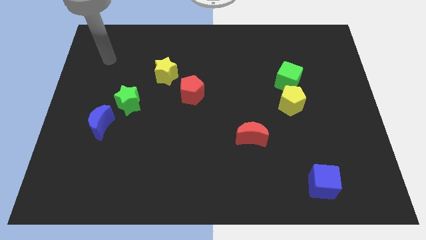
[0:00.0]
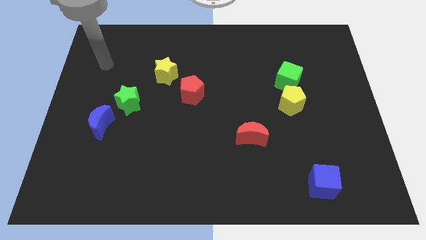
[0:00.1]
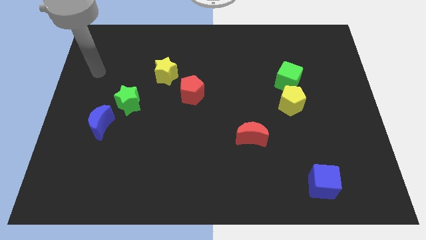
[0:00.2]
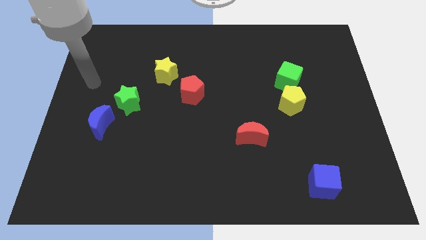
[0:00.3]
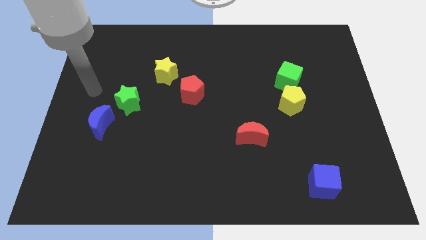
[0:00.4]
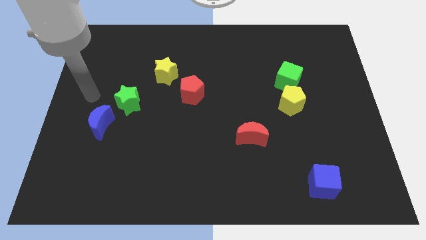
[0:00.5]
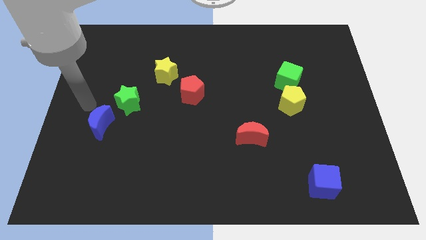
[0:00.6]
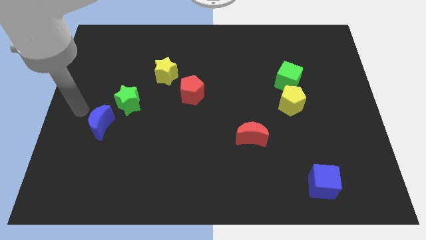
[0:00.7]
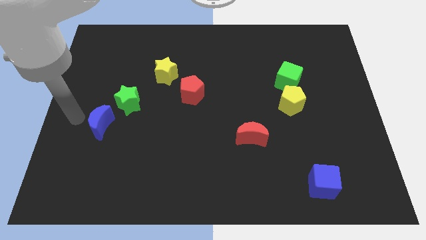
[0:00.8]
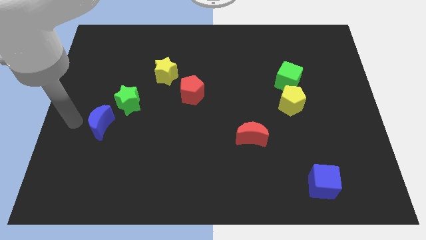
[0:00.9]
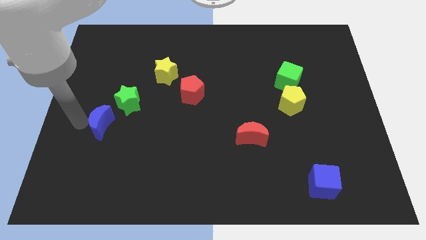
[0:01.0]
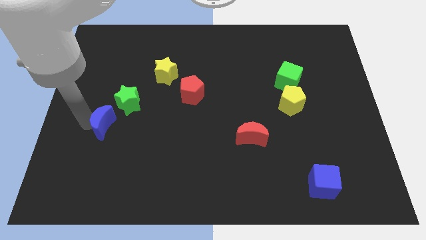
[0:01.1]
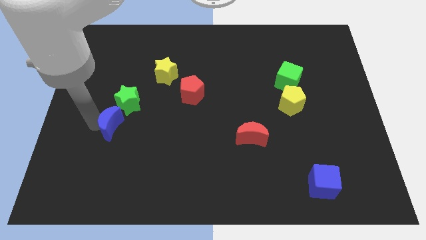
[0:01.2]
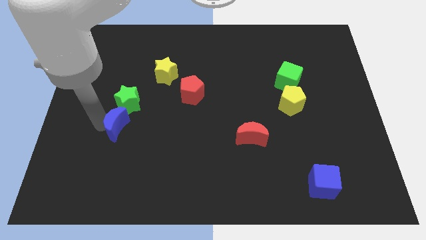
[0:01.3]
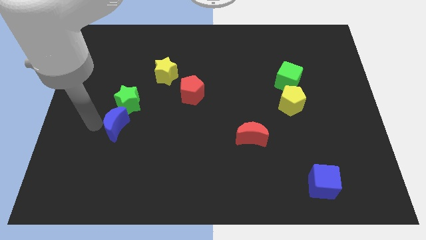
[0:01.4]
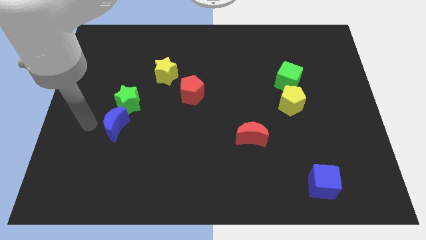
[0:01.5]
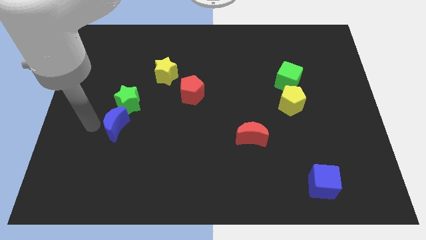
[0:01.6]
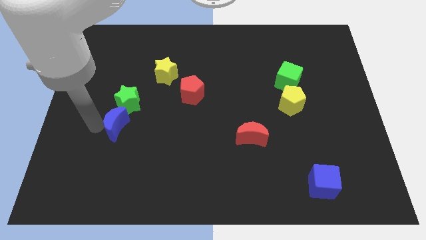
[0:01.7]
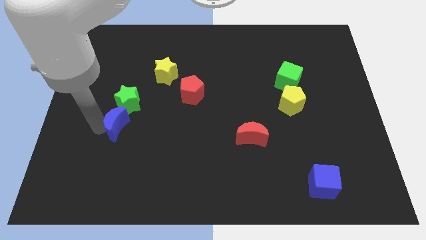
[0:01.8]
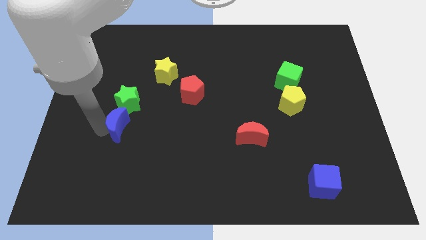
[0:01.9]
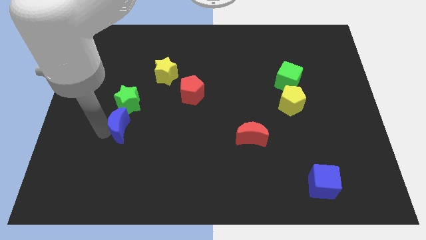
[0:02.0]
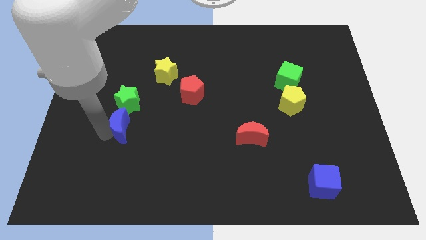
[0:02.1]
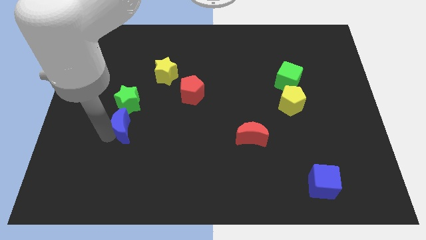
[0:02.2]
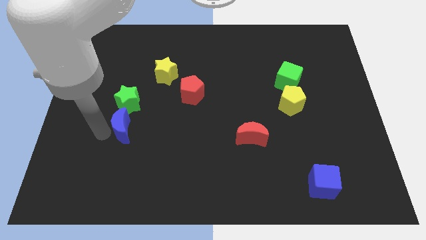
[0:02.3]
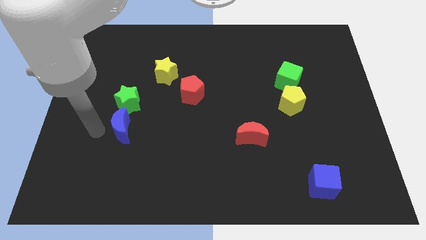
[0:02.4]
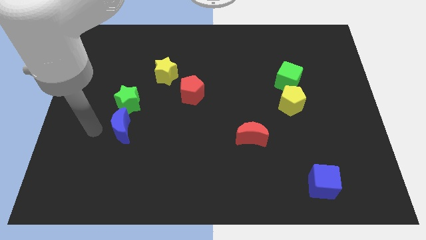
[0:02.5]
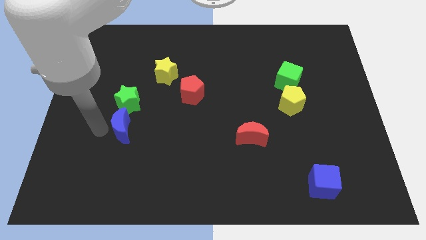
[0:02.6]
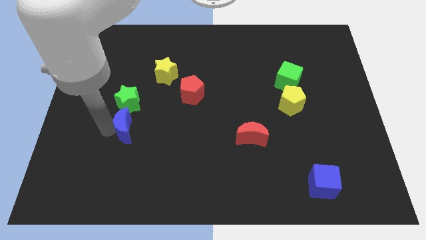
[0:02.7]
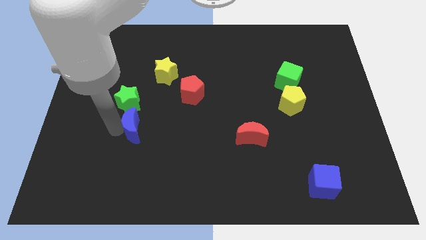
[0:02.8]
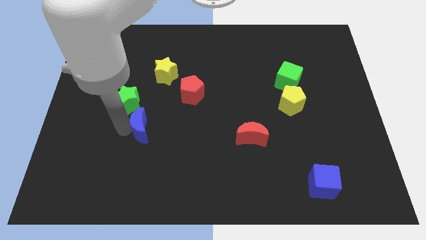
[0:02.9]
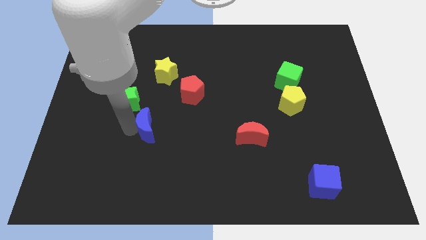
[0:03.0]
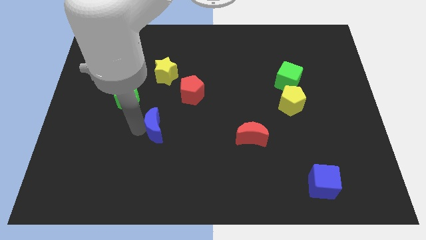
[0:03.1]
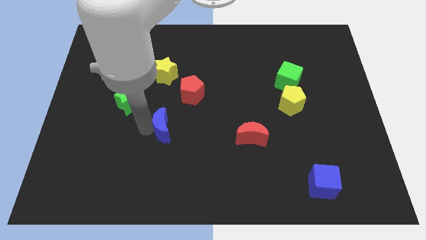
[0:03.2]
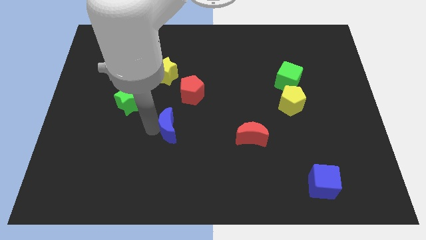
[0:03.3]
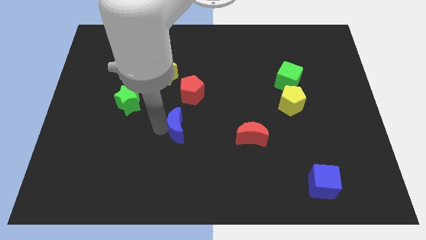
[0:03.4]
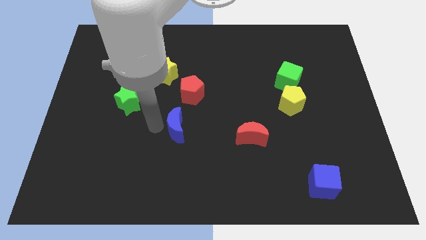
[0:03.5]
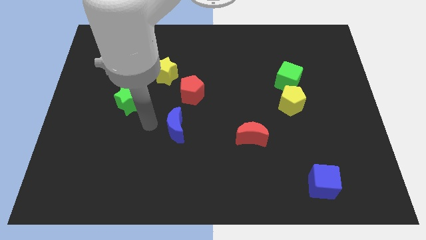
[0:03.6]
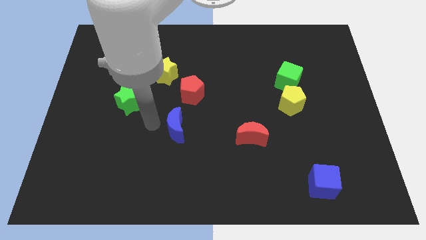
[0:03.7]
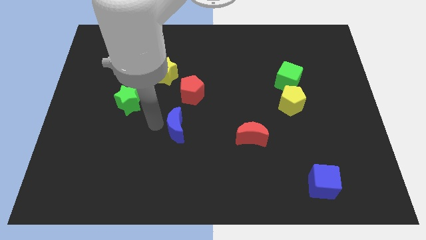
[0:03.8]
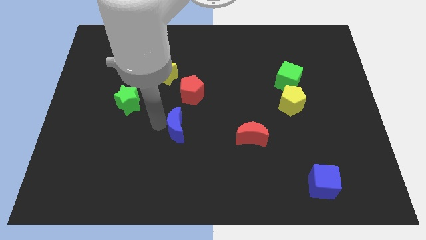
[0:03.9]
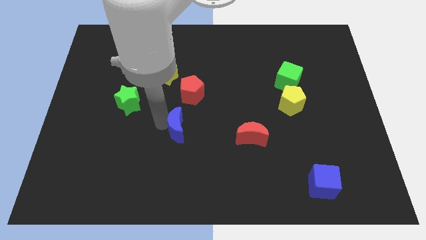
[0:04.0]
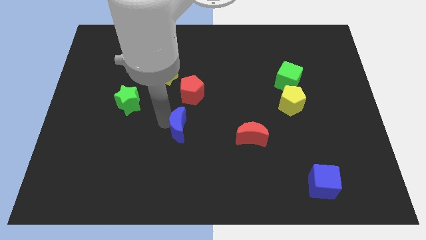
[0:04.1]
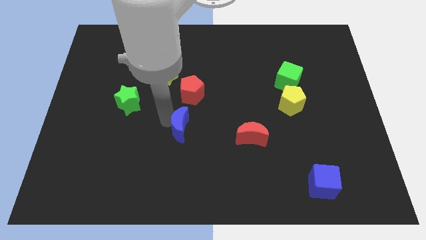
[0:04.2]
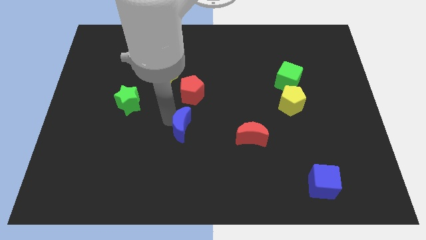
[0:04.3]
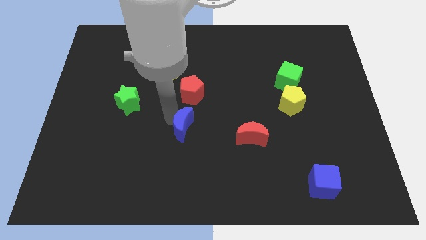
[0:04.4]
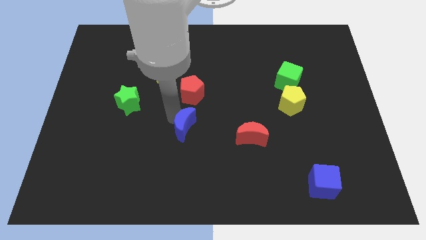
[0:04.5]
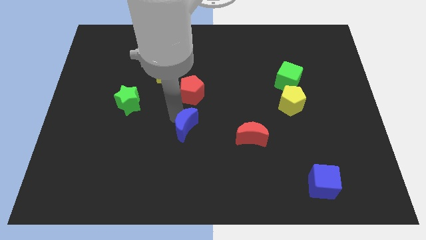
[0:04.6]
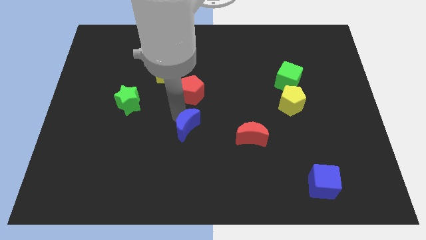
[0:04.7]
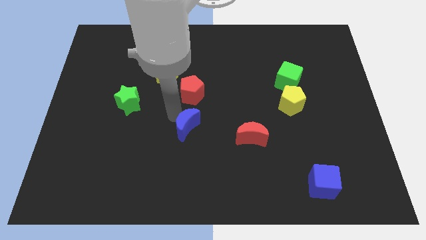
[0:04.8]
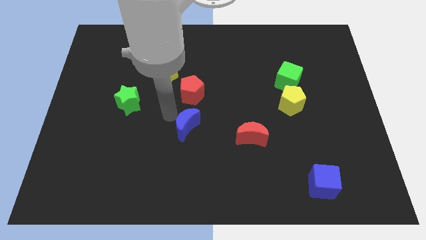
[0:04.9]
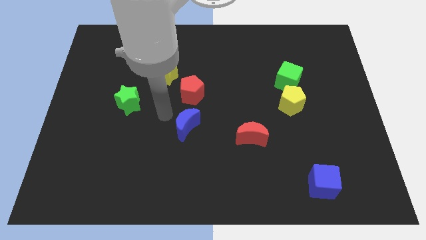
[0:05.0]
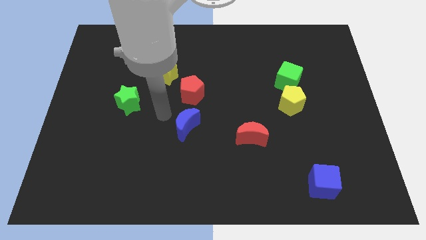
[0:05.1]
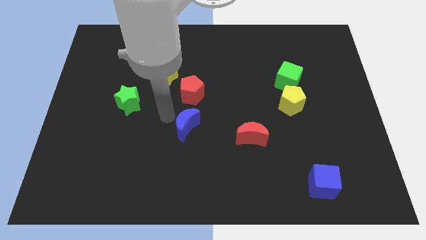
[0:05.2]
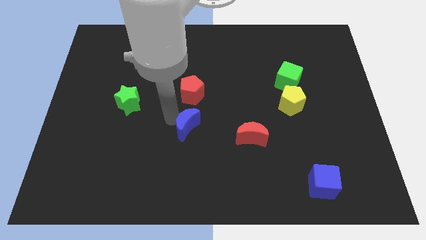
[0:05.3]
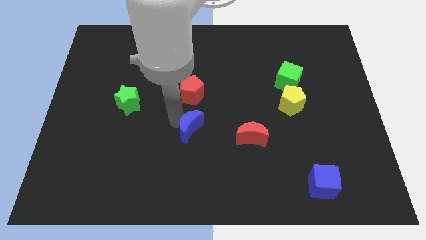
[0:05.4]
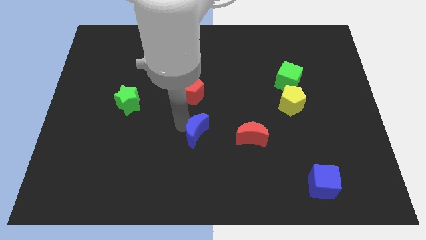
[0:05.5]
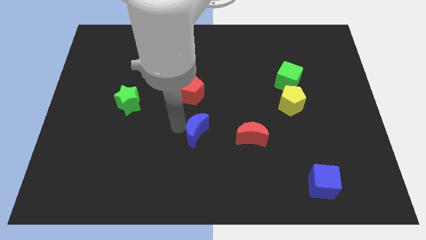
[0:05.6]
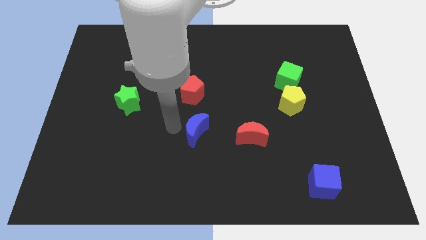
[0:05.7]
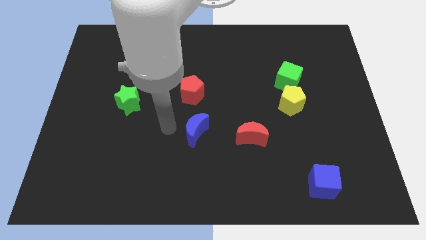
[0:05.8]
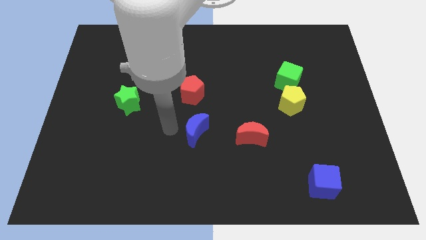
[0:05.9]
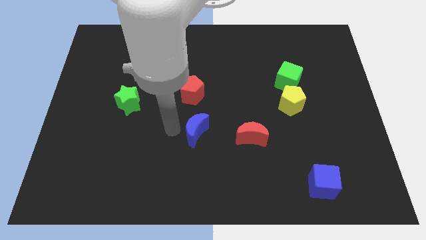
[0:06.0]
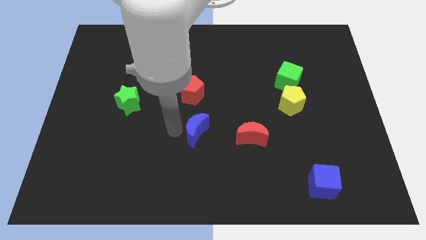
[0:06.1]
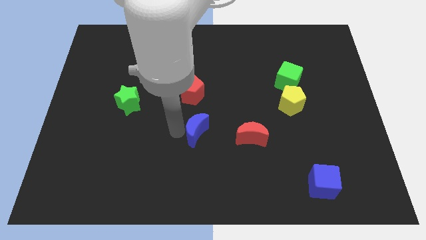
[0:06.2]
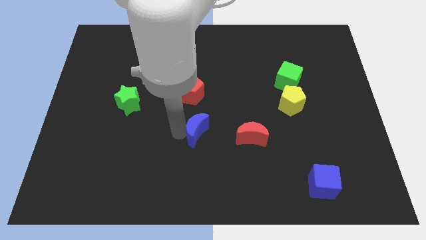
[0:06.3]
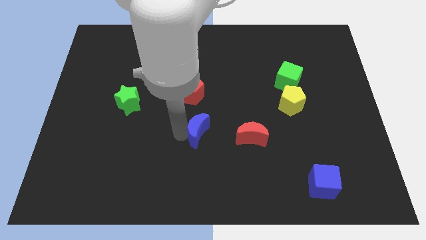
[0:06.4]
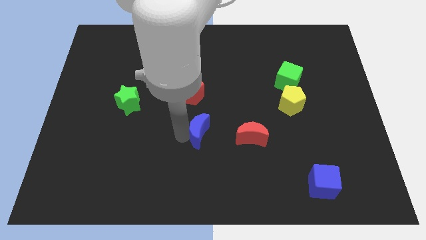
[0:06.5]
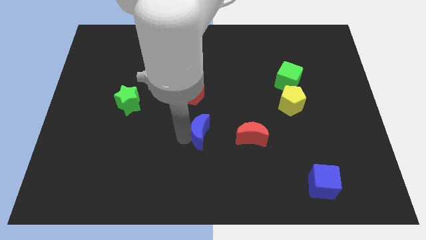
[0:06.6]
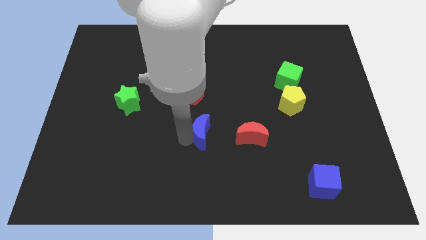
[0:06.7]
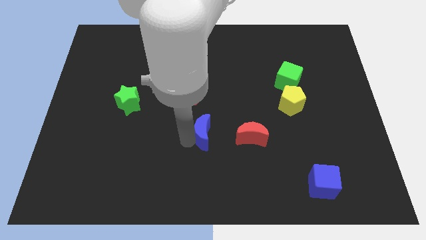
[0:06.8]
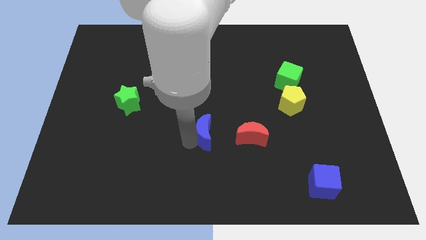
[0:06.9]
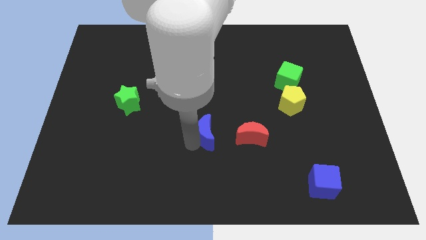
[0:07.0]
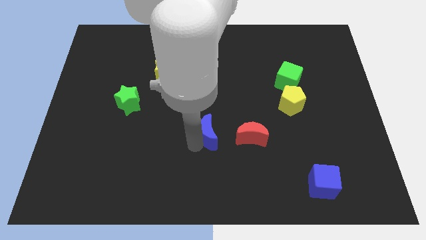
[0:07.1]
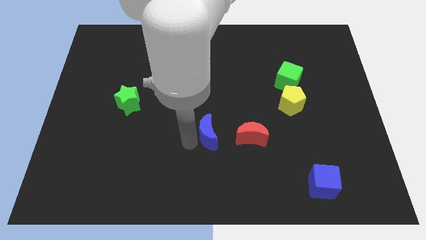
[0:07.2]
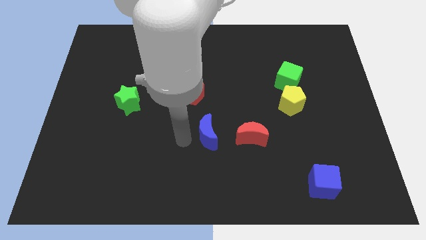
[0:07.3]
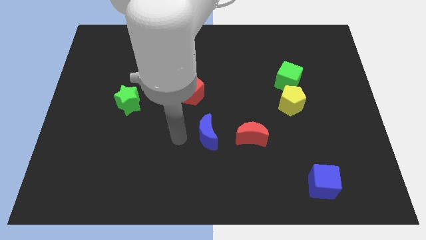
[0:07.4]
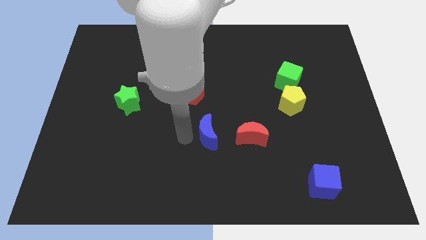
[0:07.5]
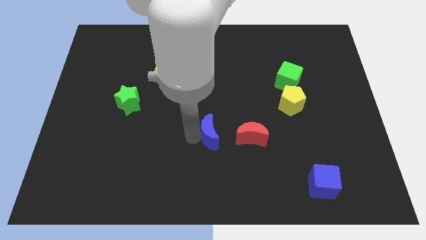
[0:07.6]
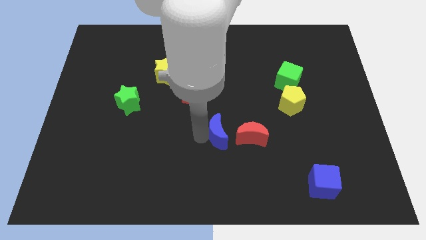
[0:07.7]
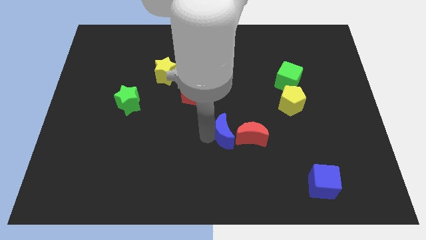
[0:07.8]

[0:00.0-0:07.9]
push the blue moon close to the red moon
